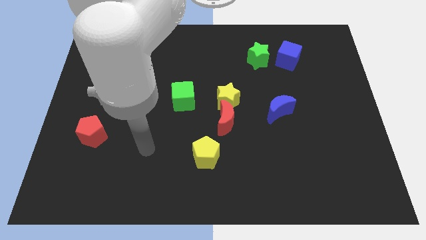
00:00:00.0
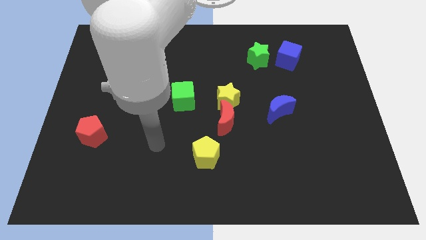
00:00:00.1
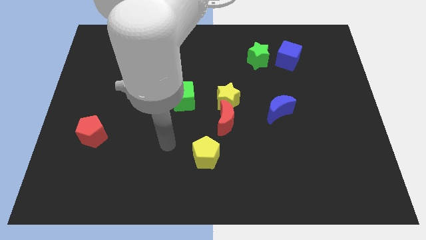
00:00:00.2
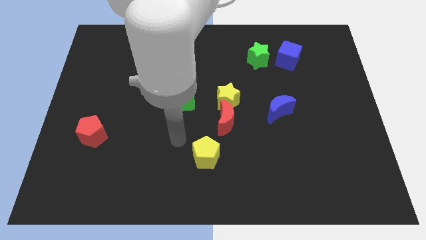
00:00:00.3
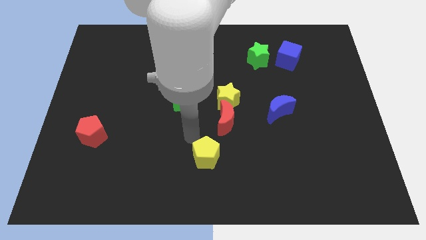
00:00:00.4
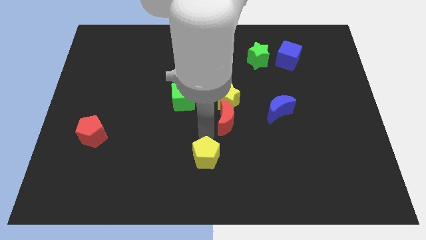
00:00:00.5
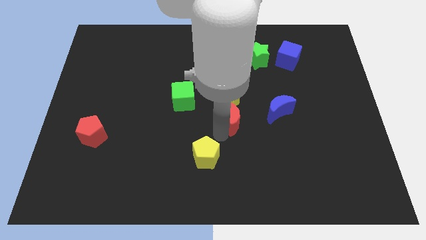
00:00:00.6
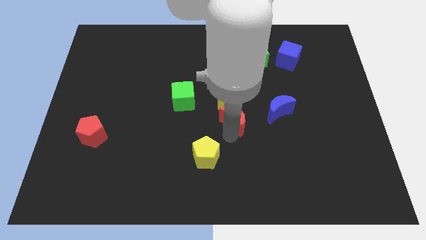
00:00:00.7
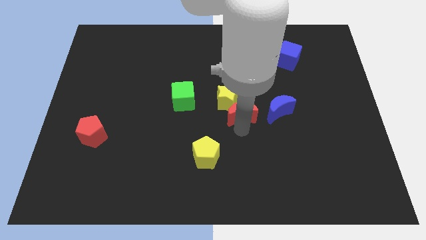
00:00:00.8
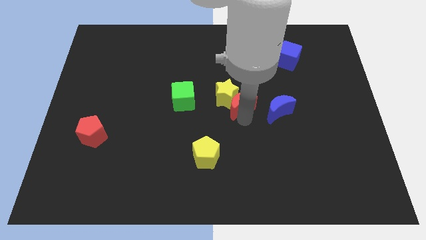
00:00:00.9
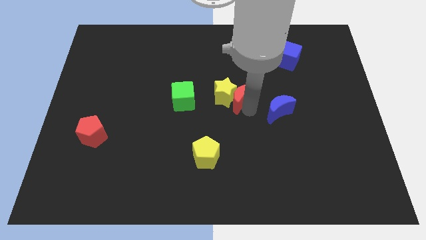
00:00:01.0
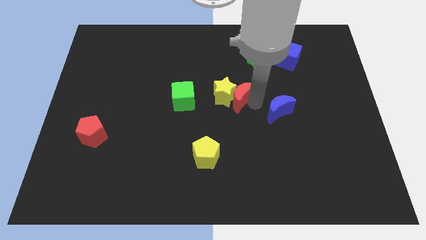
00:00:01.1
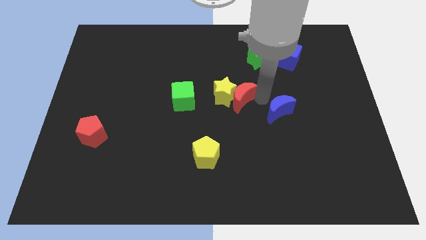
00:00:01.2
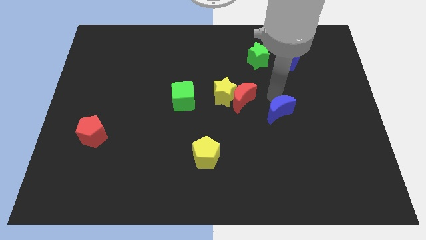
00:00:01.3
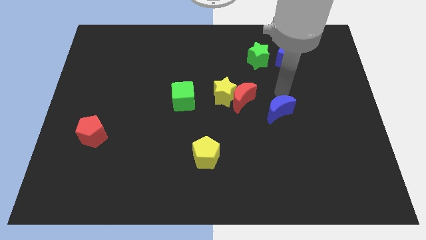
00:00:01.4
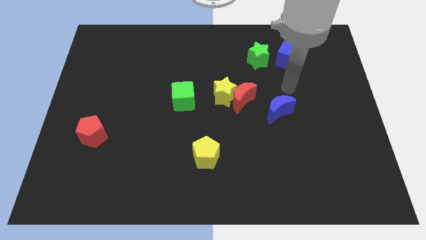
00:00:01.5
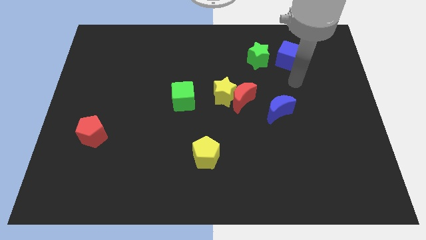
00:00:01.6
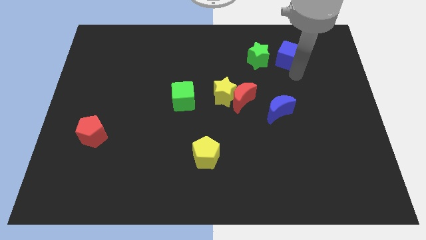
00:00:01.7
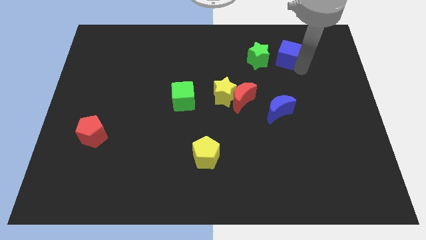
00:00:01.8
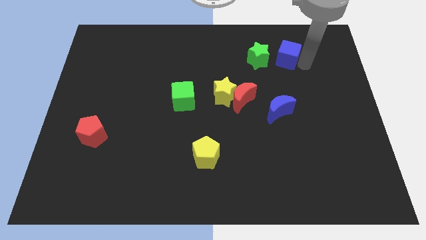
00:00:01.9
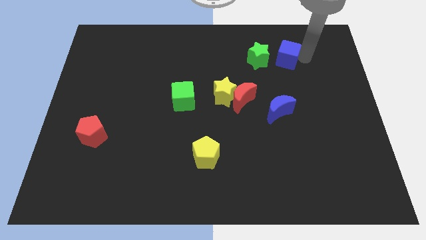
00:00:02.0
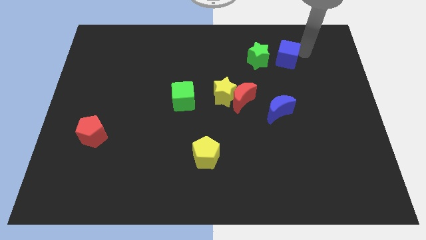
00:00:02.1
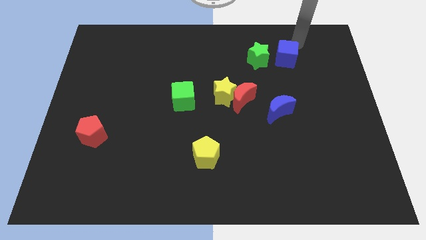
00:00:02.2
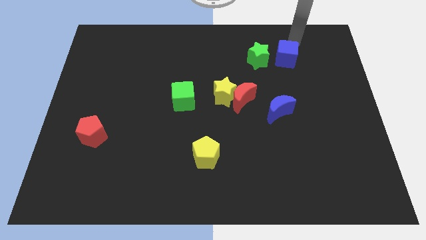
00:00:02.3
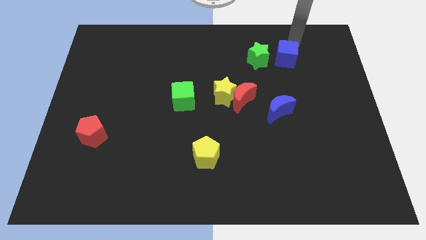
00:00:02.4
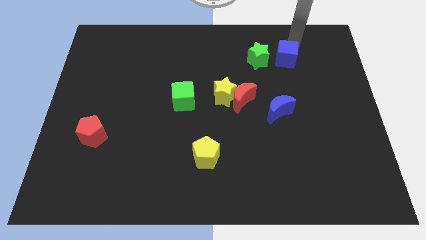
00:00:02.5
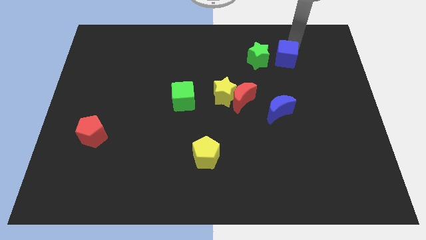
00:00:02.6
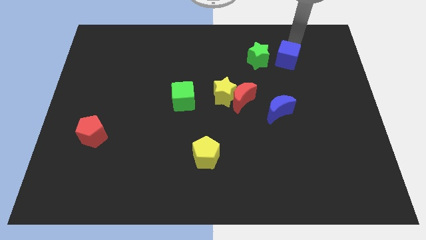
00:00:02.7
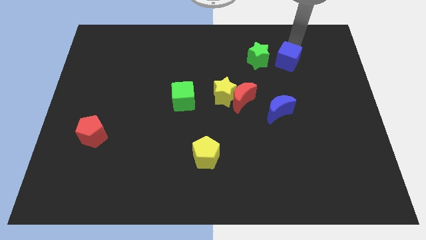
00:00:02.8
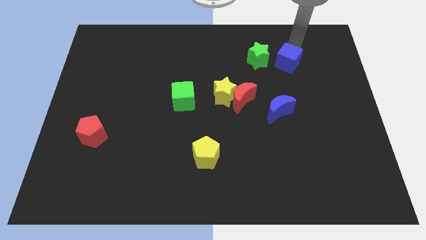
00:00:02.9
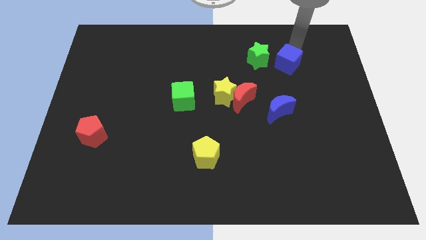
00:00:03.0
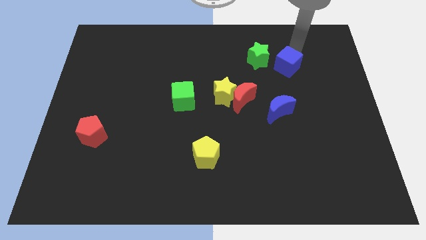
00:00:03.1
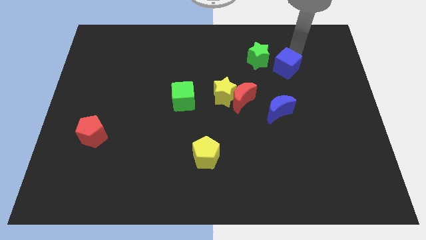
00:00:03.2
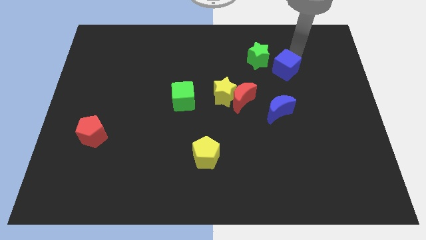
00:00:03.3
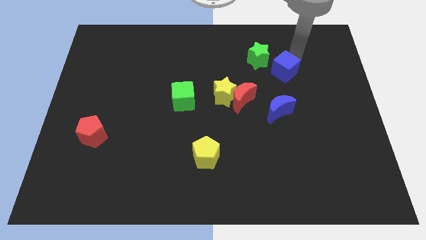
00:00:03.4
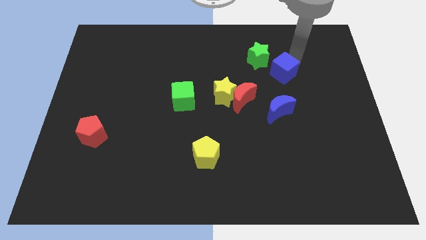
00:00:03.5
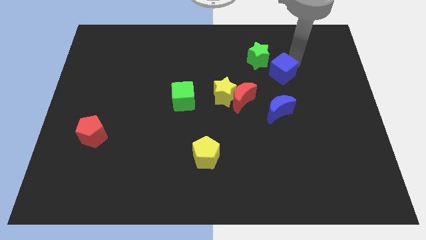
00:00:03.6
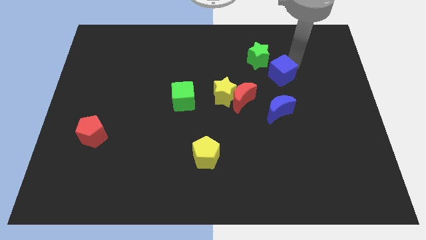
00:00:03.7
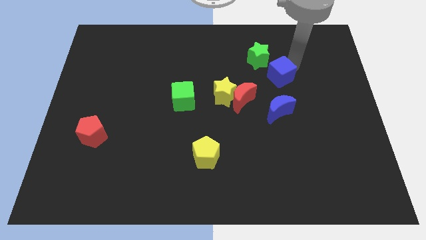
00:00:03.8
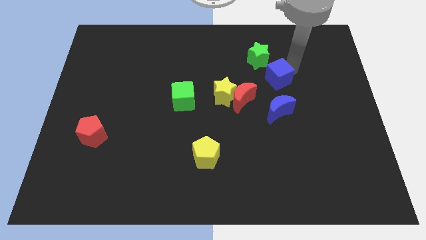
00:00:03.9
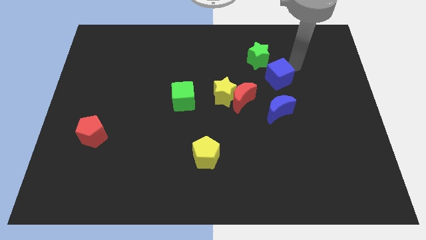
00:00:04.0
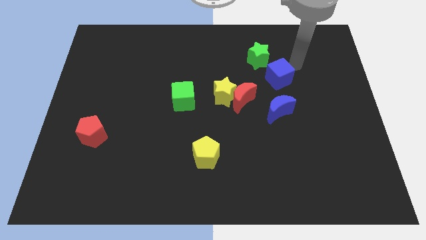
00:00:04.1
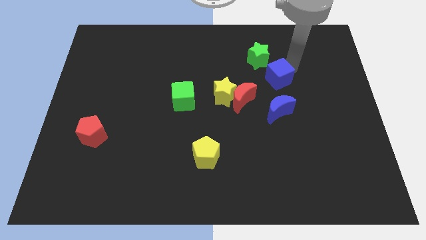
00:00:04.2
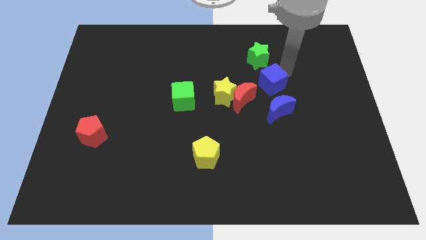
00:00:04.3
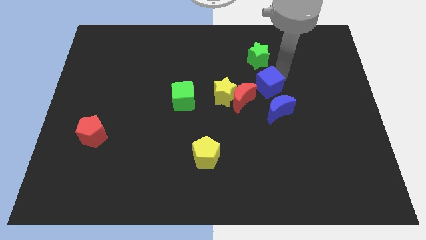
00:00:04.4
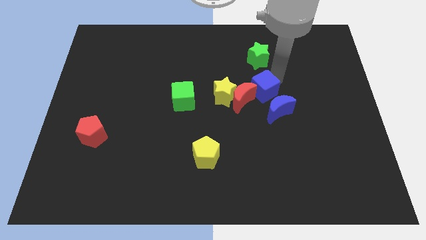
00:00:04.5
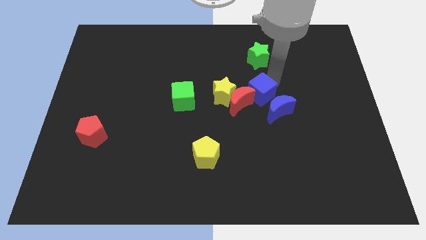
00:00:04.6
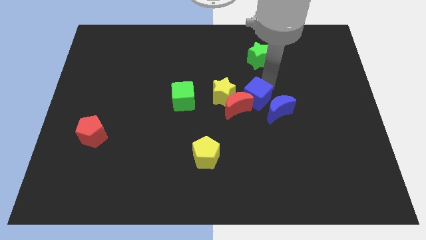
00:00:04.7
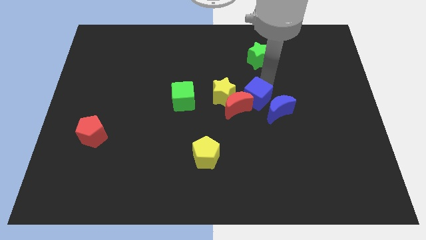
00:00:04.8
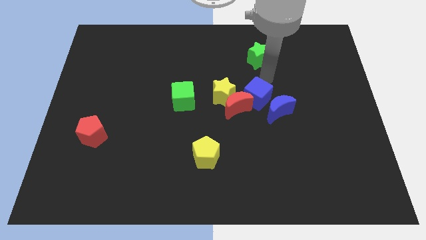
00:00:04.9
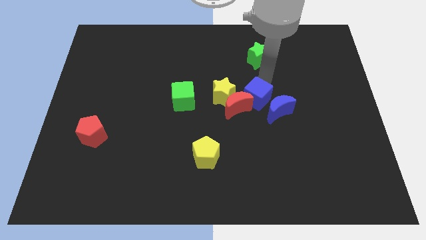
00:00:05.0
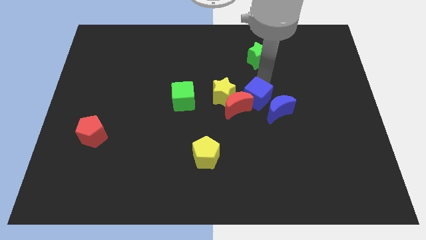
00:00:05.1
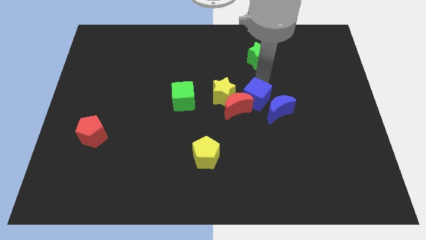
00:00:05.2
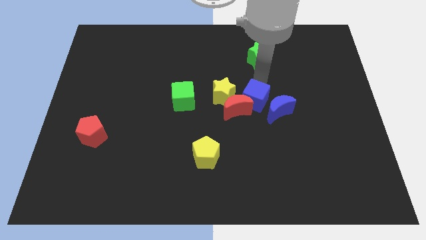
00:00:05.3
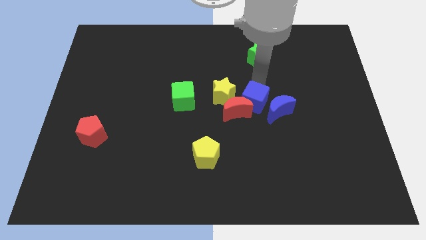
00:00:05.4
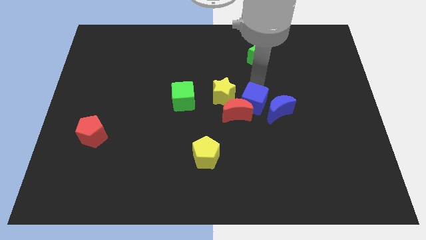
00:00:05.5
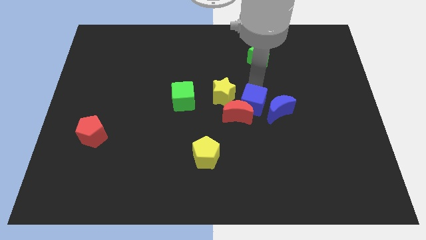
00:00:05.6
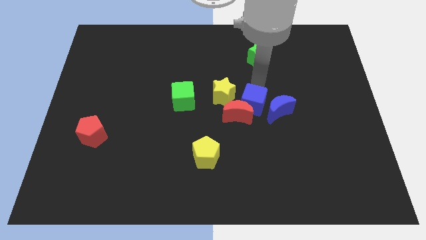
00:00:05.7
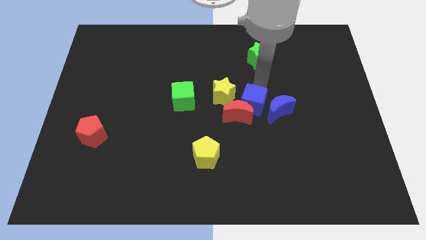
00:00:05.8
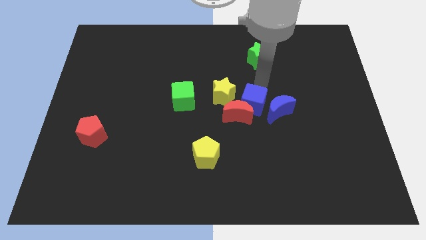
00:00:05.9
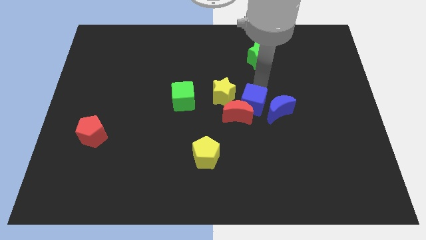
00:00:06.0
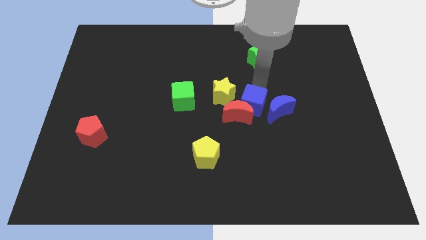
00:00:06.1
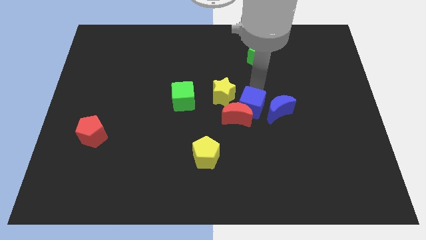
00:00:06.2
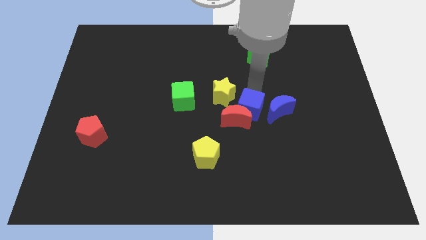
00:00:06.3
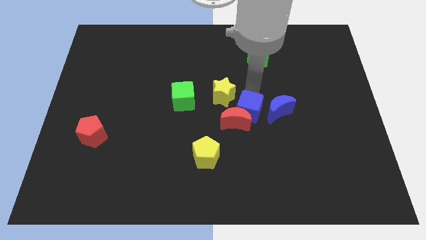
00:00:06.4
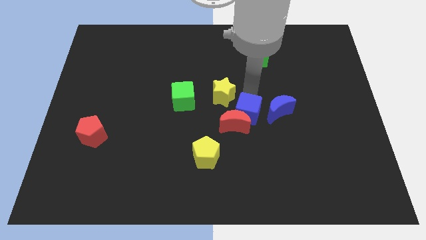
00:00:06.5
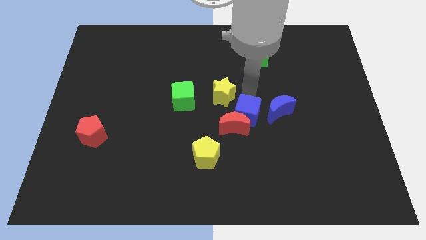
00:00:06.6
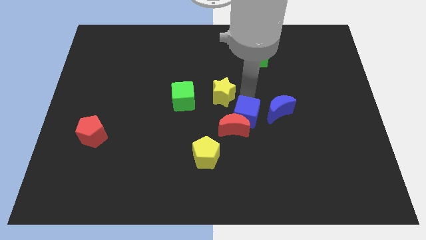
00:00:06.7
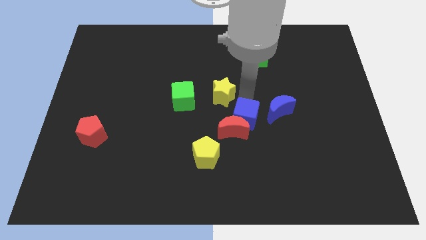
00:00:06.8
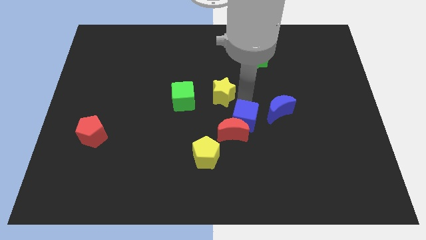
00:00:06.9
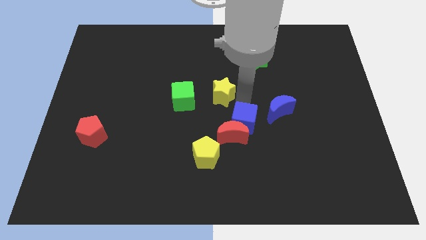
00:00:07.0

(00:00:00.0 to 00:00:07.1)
slide the blue cube to the top right side of the yellow pentagon
